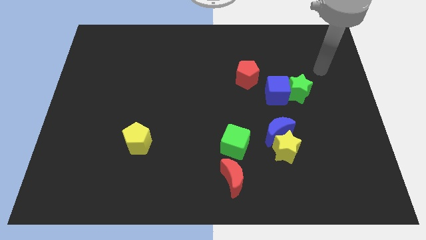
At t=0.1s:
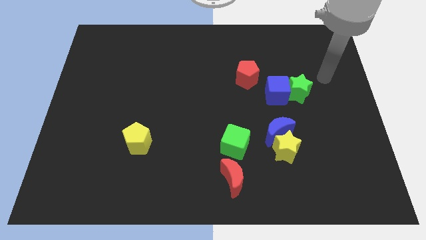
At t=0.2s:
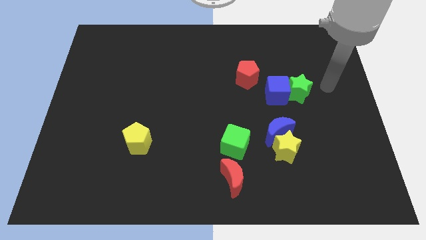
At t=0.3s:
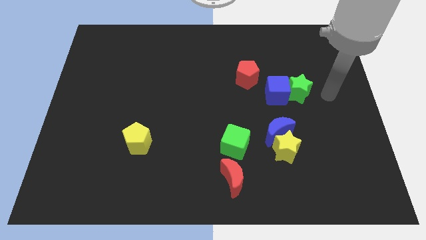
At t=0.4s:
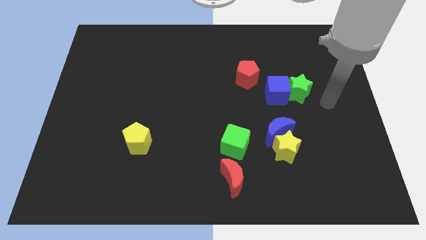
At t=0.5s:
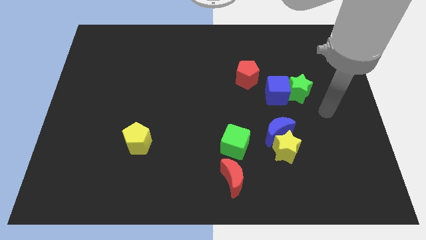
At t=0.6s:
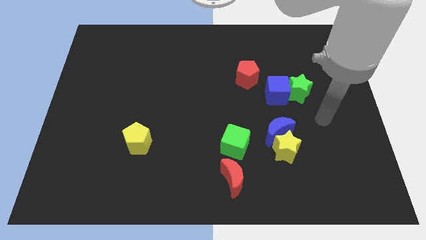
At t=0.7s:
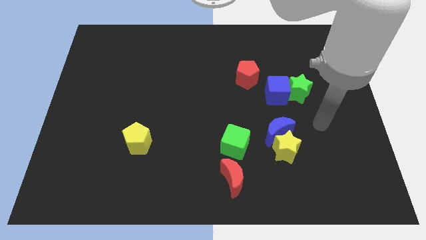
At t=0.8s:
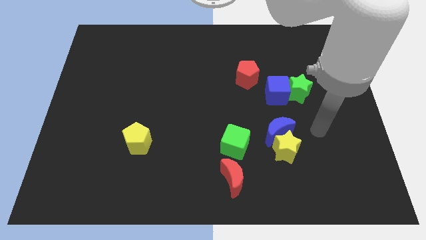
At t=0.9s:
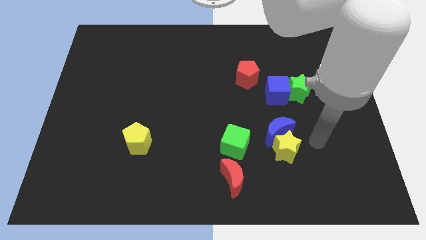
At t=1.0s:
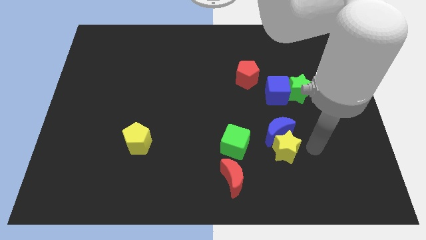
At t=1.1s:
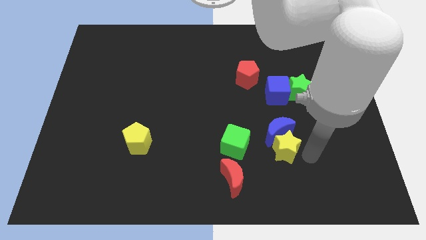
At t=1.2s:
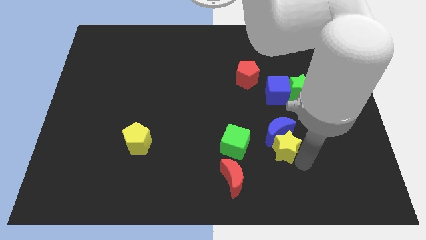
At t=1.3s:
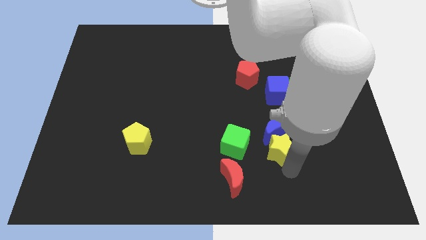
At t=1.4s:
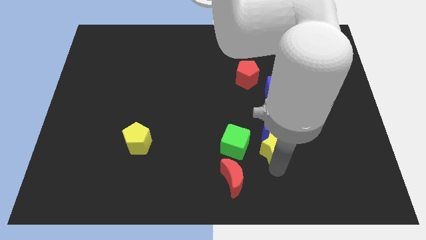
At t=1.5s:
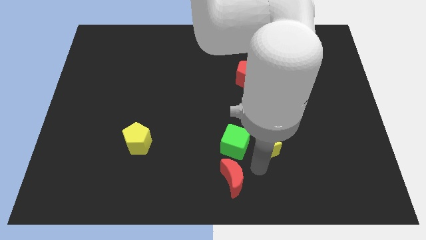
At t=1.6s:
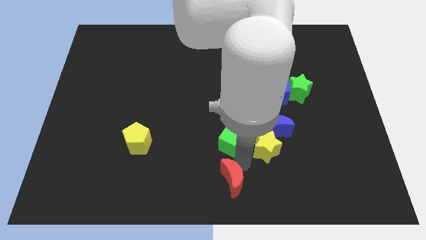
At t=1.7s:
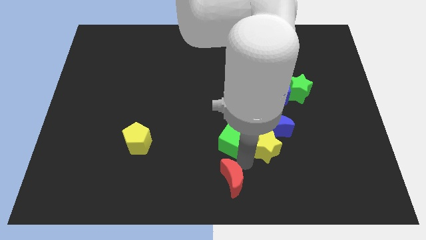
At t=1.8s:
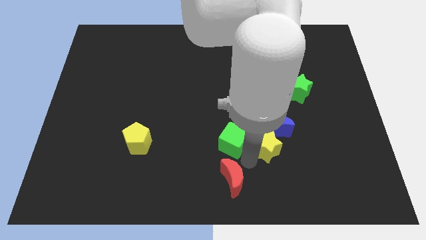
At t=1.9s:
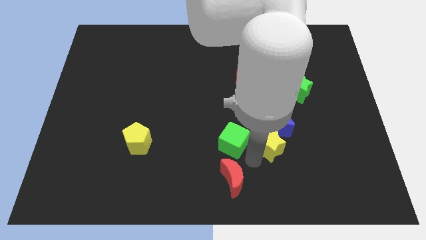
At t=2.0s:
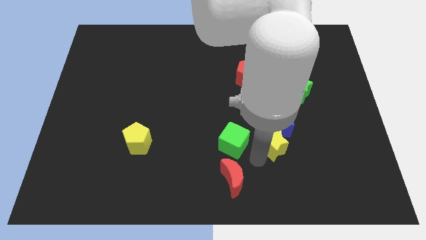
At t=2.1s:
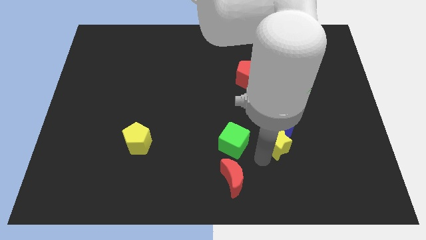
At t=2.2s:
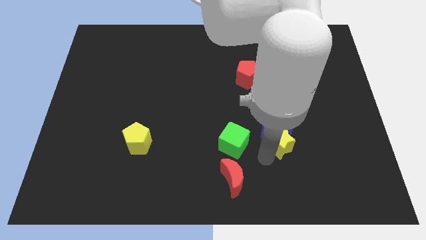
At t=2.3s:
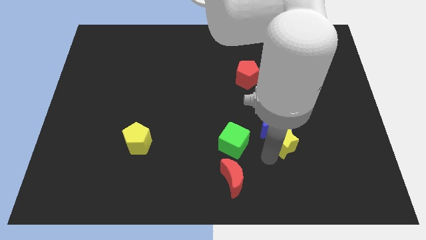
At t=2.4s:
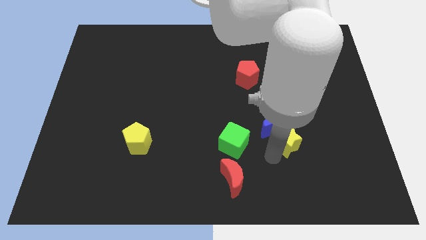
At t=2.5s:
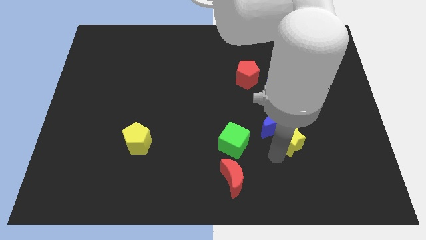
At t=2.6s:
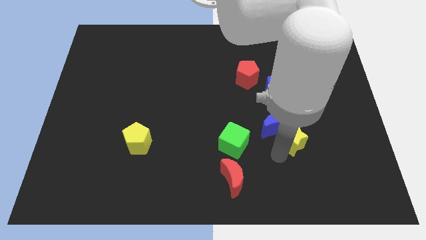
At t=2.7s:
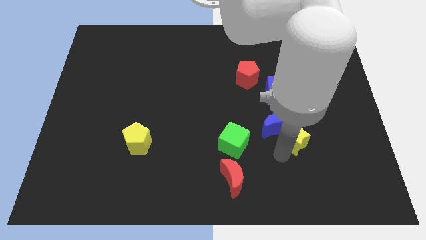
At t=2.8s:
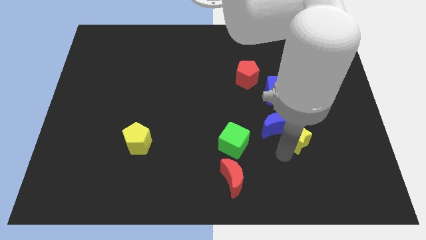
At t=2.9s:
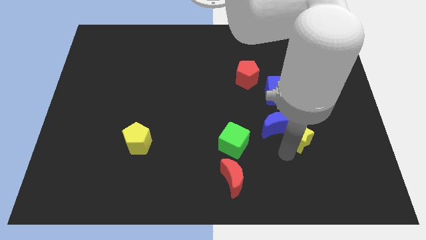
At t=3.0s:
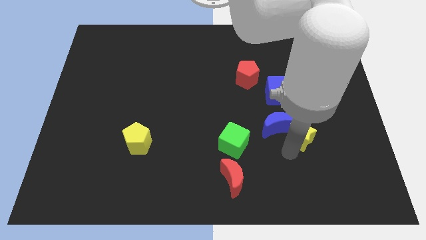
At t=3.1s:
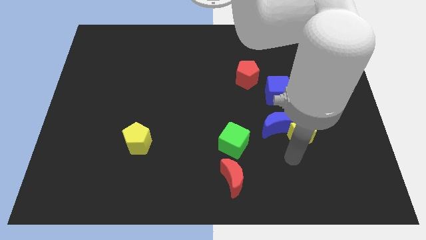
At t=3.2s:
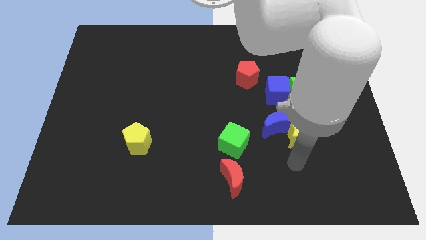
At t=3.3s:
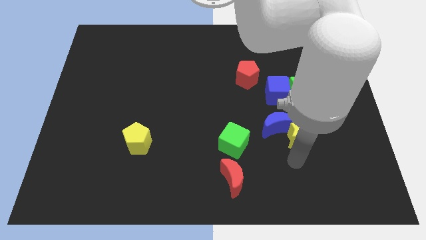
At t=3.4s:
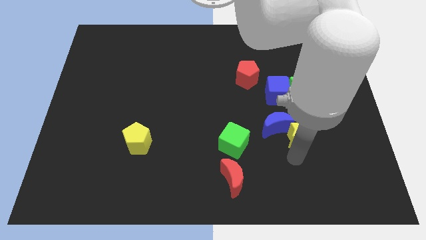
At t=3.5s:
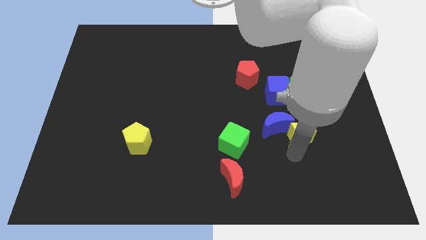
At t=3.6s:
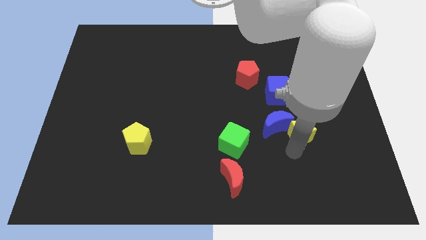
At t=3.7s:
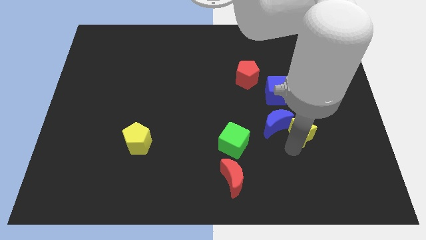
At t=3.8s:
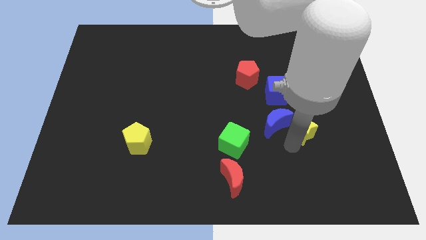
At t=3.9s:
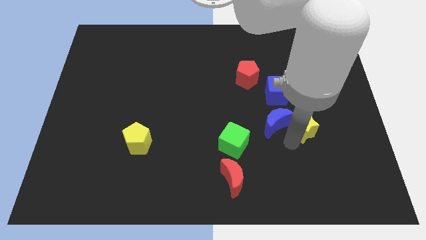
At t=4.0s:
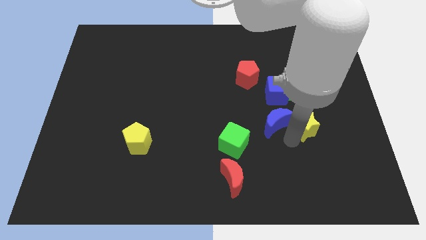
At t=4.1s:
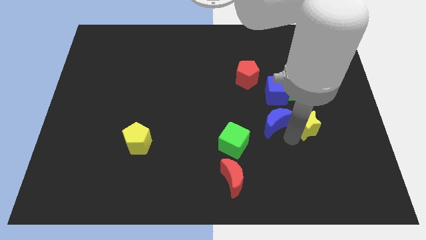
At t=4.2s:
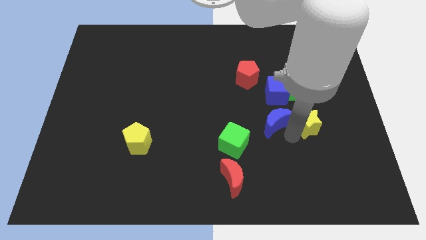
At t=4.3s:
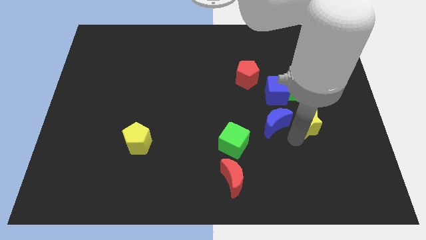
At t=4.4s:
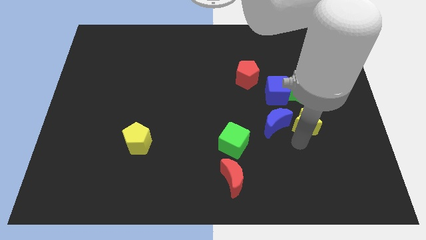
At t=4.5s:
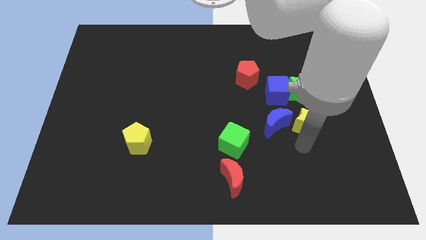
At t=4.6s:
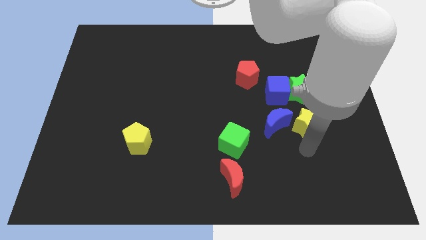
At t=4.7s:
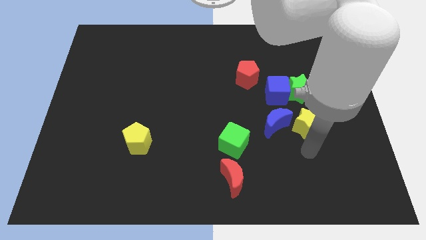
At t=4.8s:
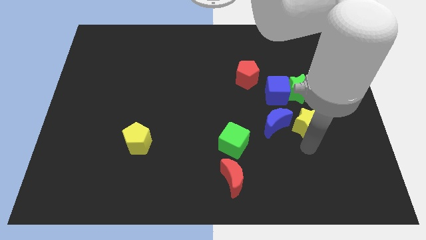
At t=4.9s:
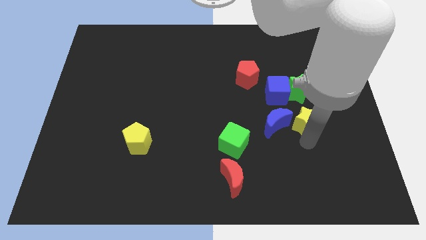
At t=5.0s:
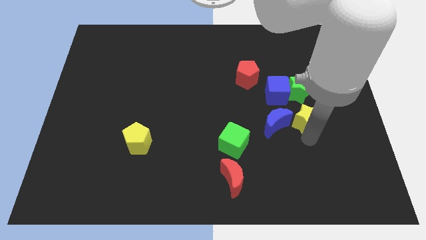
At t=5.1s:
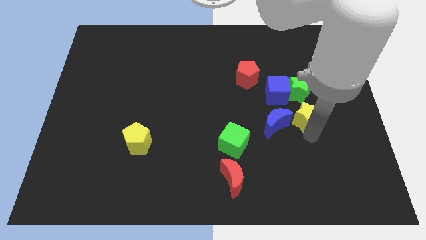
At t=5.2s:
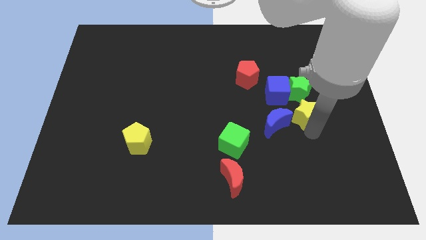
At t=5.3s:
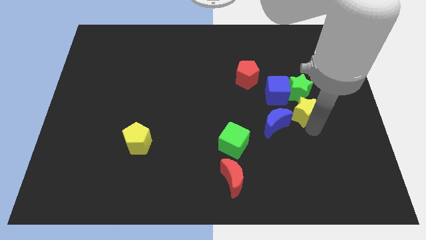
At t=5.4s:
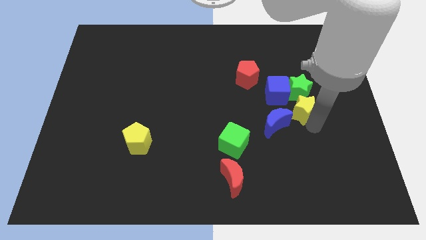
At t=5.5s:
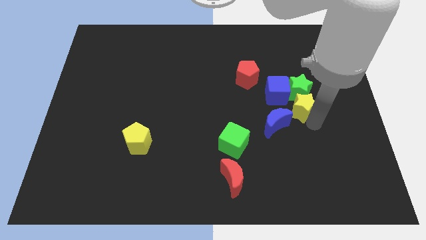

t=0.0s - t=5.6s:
push the yellow star to the green star

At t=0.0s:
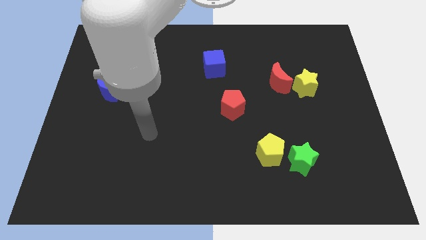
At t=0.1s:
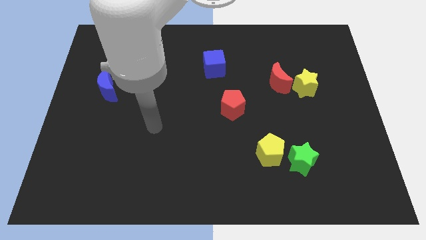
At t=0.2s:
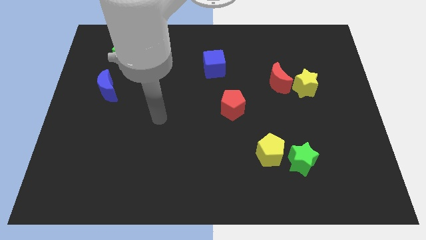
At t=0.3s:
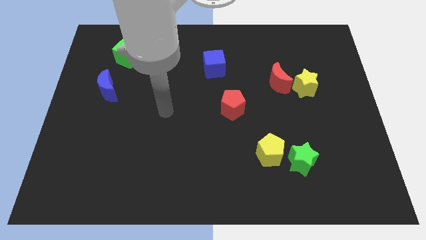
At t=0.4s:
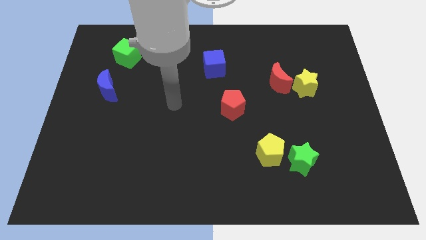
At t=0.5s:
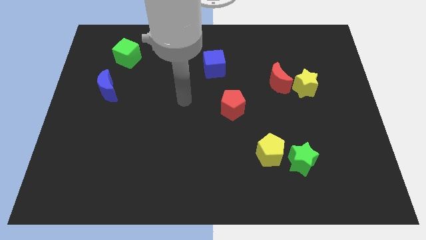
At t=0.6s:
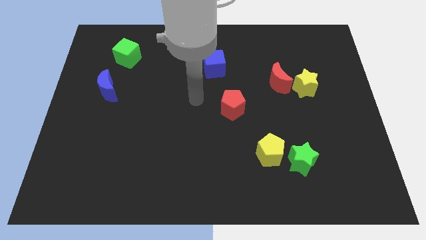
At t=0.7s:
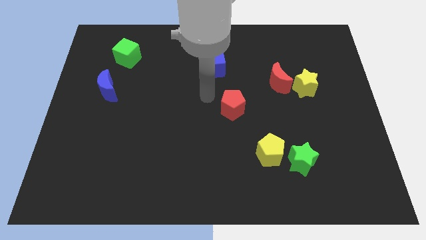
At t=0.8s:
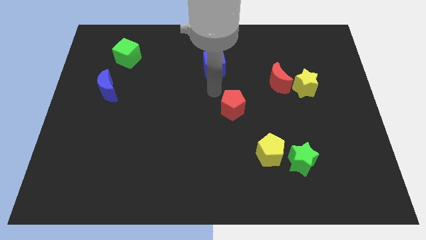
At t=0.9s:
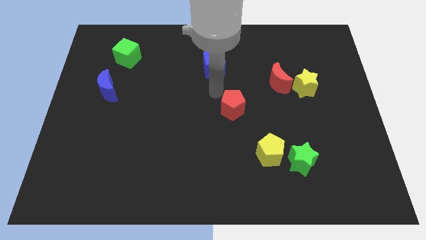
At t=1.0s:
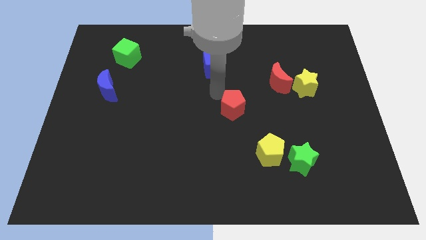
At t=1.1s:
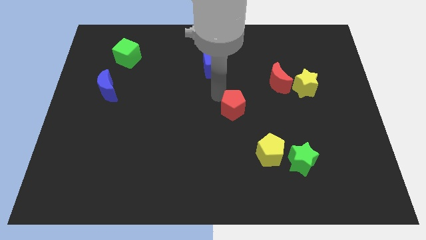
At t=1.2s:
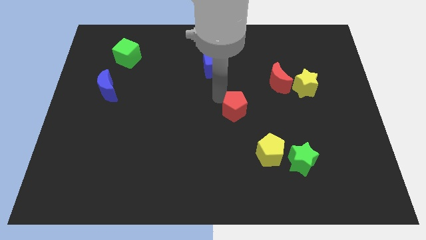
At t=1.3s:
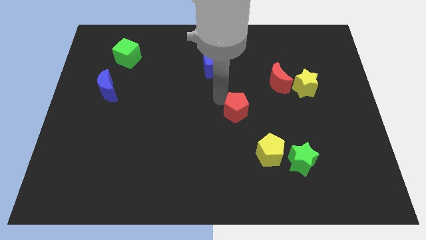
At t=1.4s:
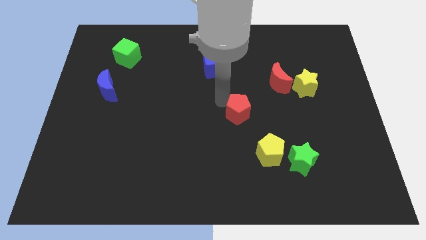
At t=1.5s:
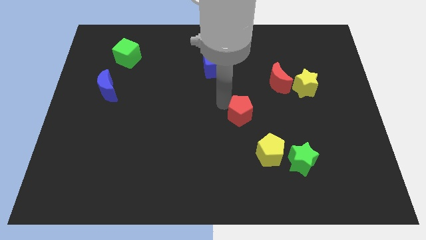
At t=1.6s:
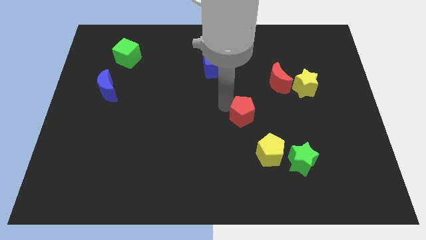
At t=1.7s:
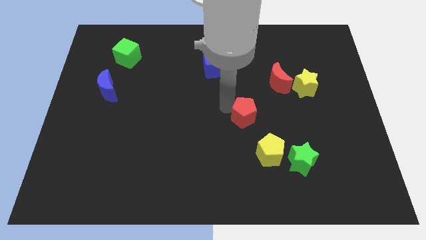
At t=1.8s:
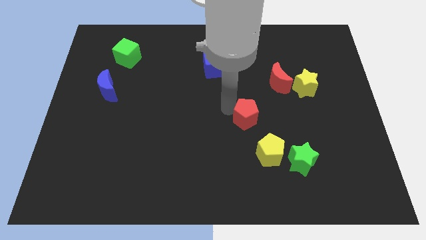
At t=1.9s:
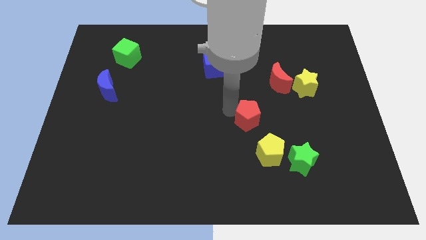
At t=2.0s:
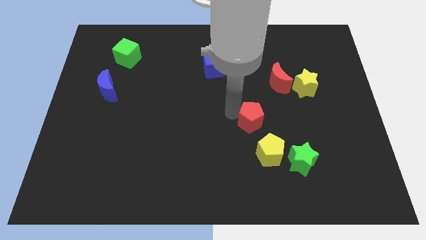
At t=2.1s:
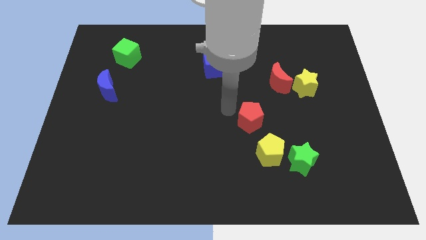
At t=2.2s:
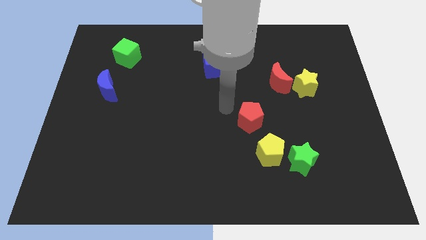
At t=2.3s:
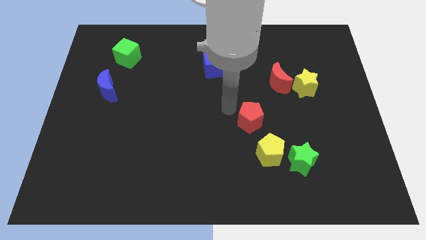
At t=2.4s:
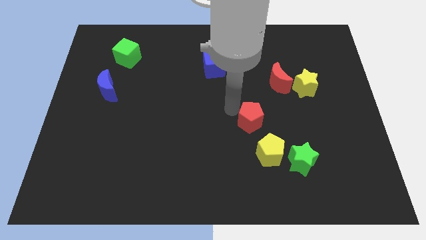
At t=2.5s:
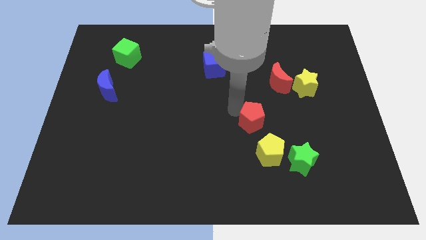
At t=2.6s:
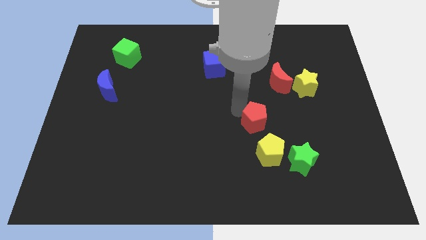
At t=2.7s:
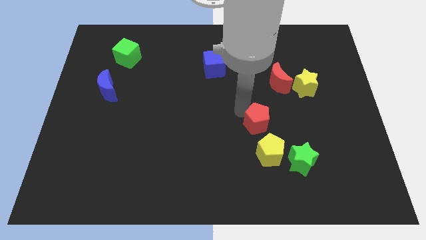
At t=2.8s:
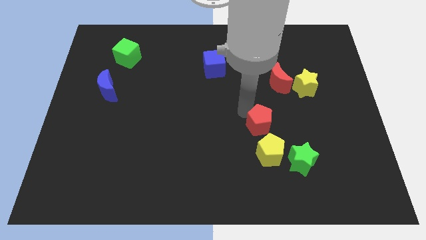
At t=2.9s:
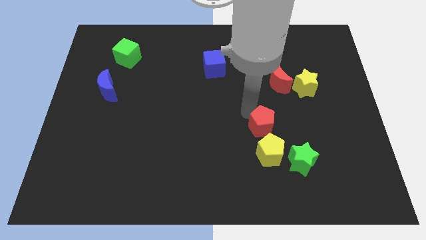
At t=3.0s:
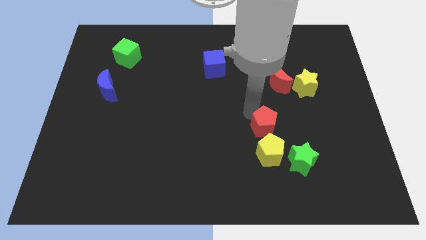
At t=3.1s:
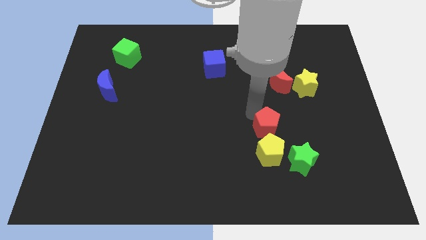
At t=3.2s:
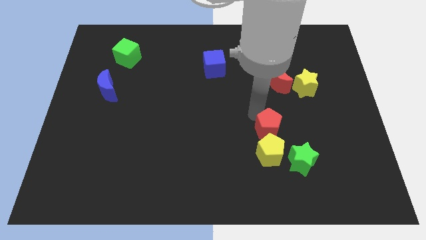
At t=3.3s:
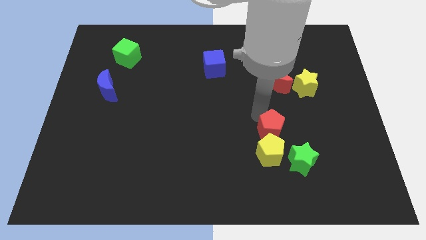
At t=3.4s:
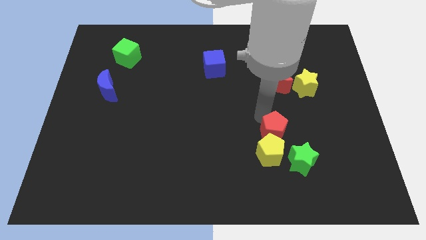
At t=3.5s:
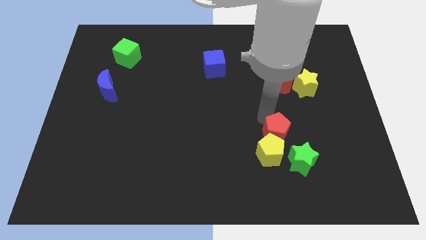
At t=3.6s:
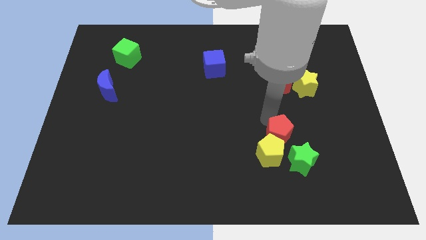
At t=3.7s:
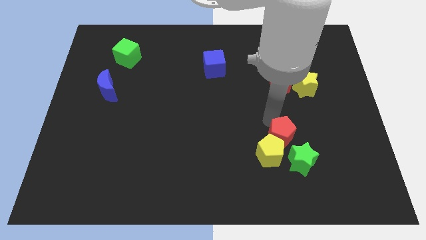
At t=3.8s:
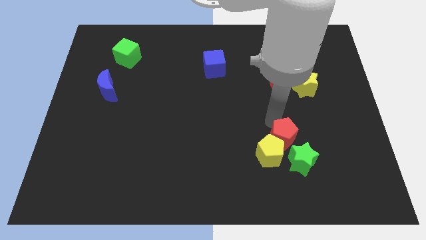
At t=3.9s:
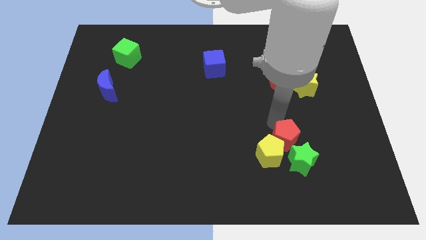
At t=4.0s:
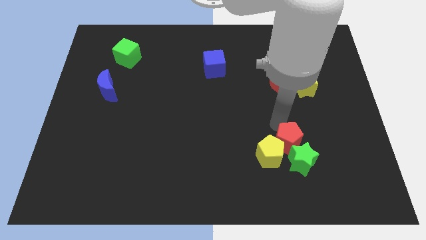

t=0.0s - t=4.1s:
move the red pentagon towards the green star
